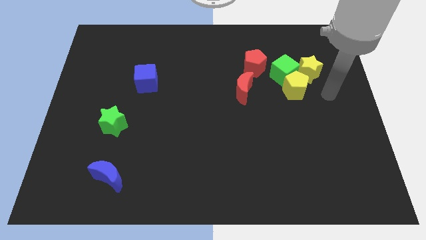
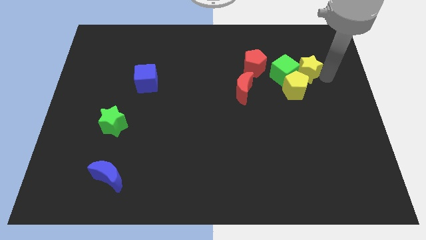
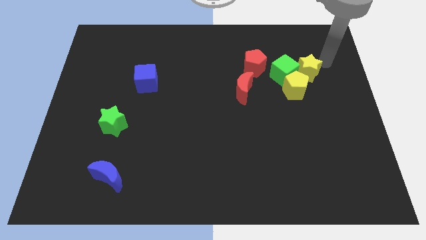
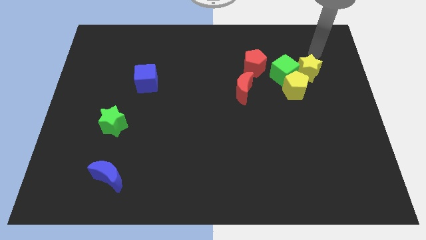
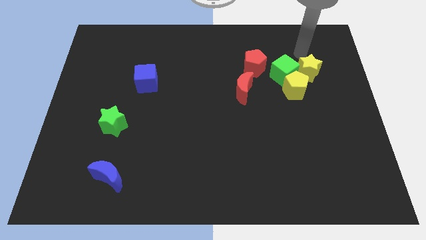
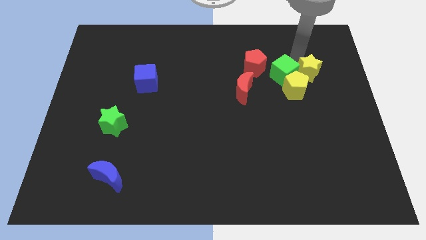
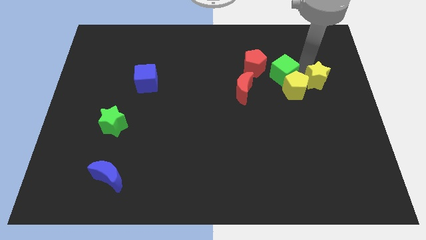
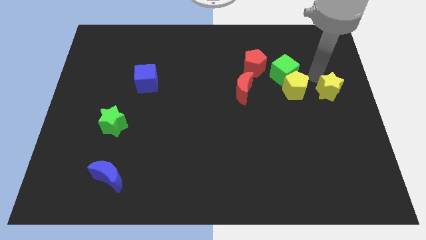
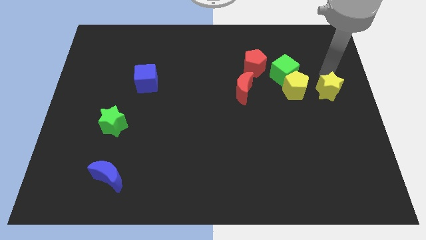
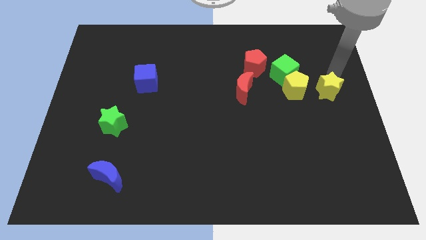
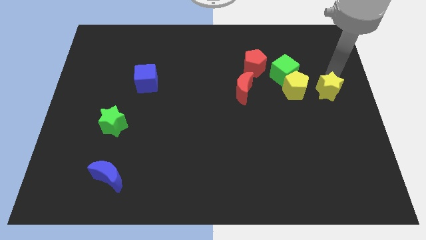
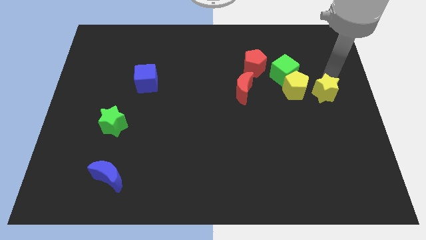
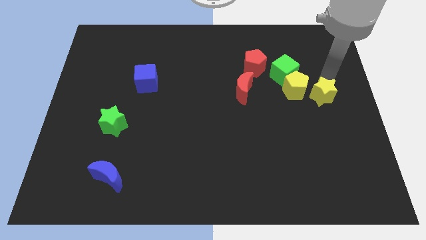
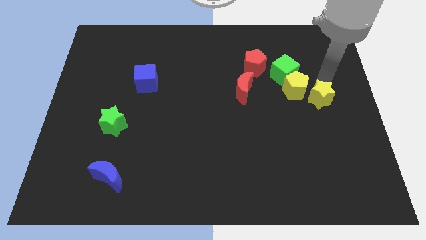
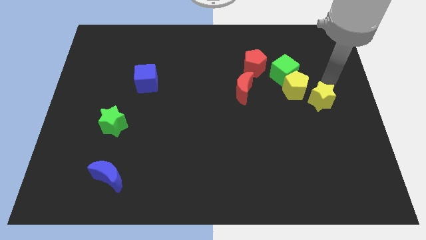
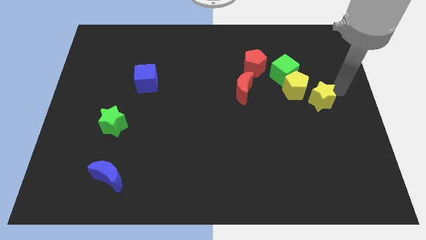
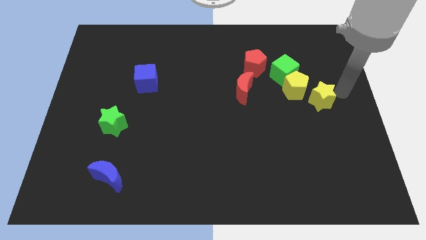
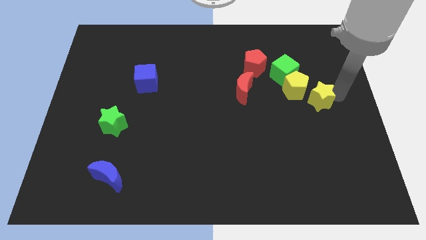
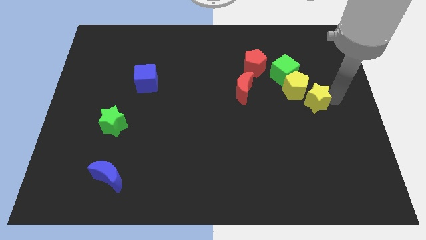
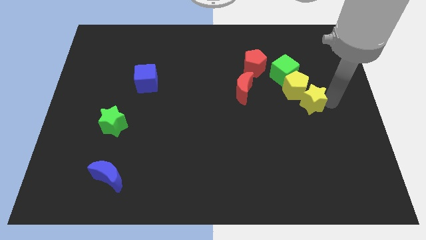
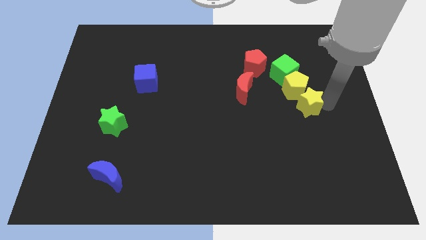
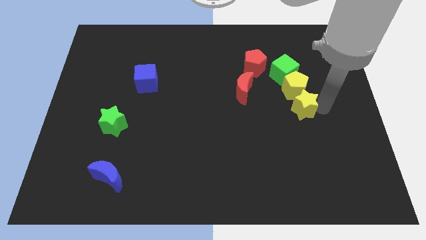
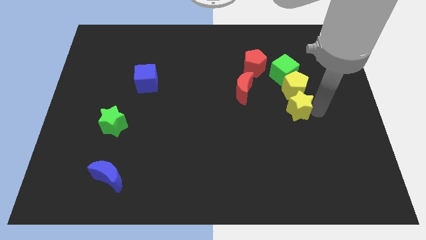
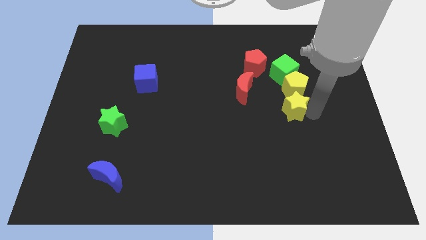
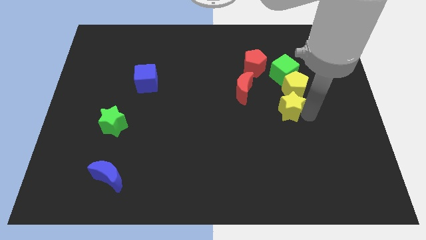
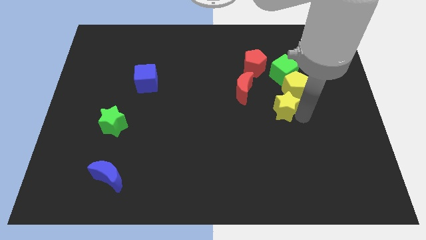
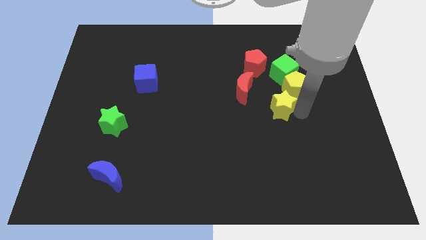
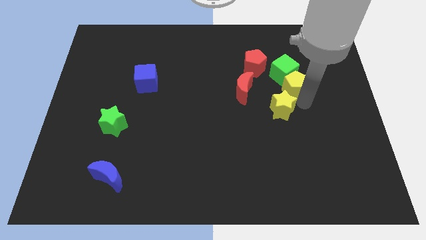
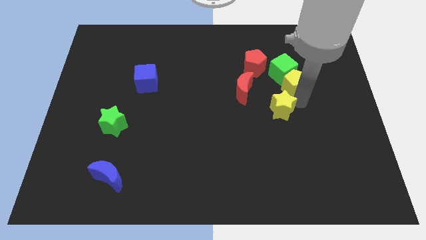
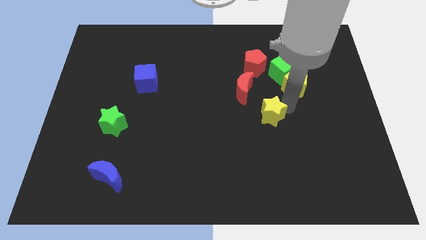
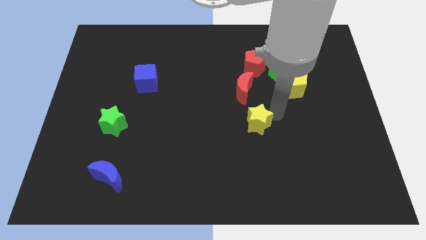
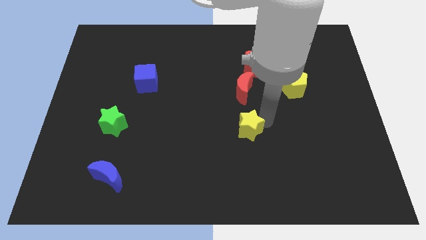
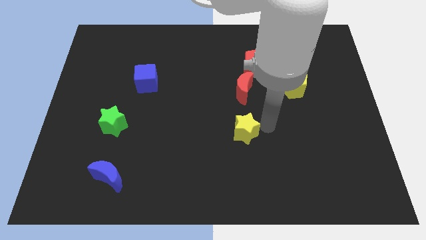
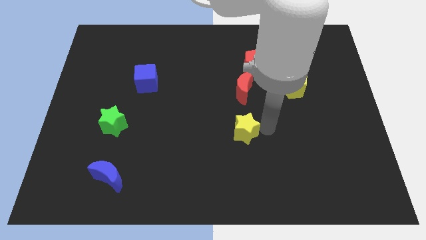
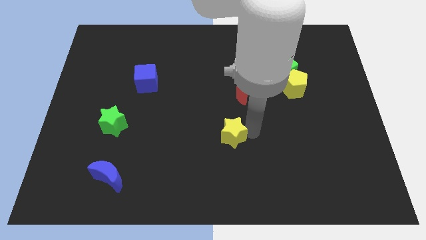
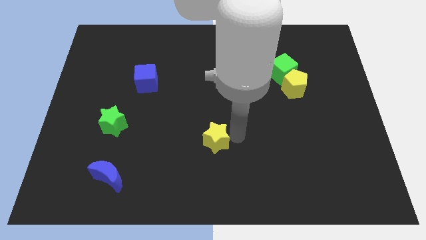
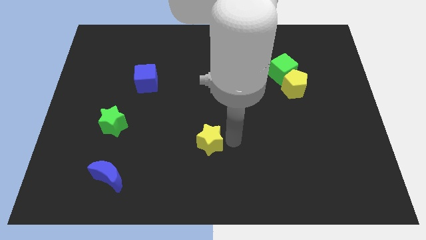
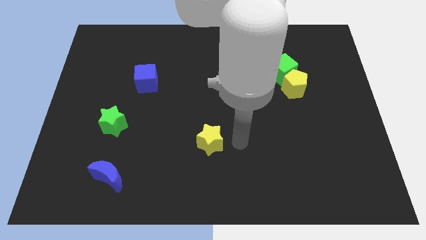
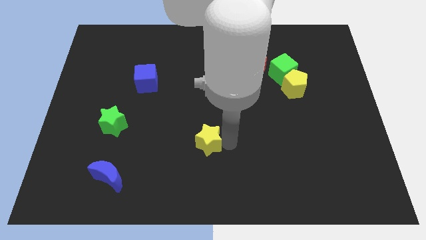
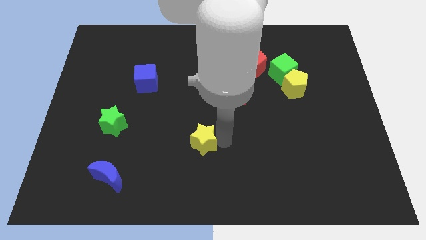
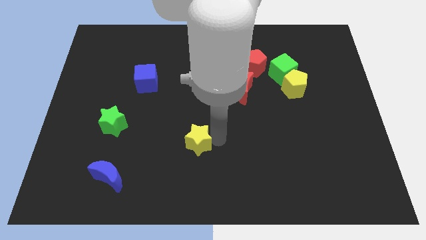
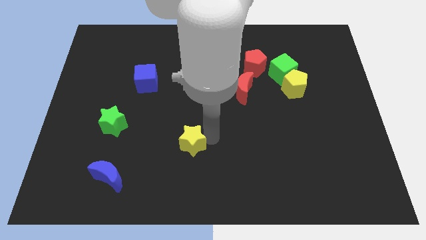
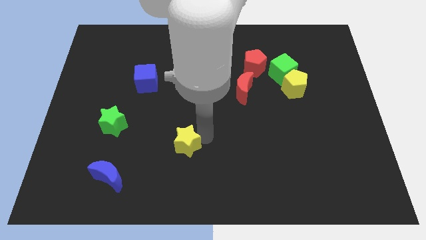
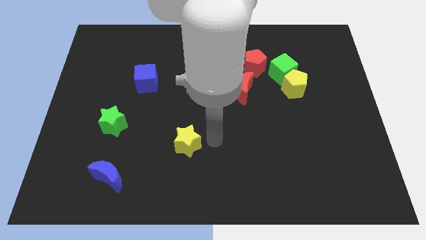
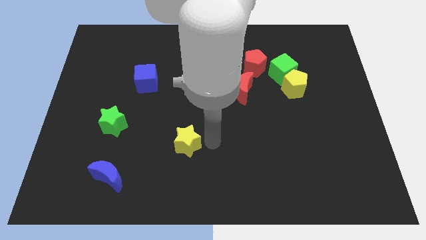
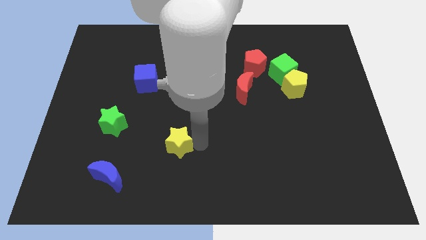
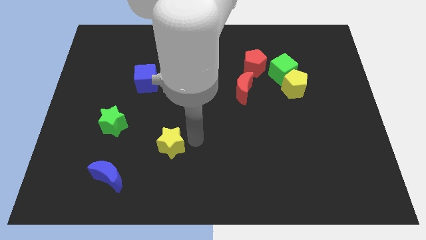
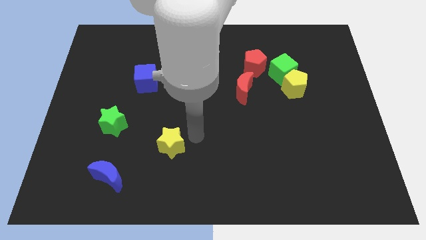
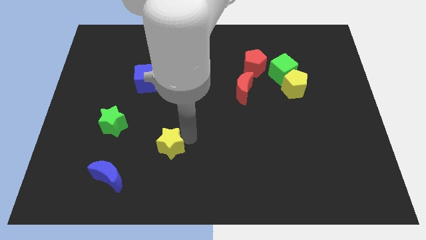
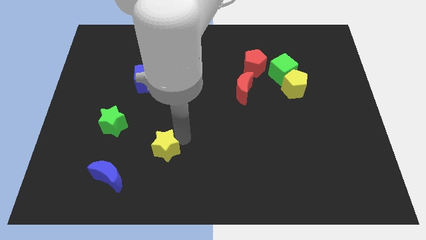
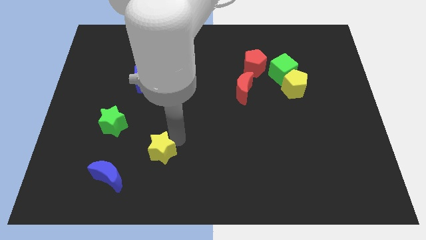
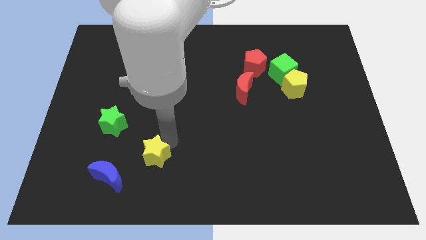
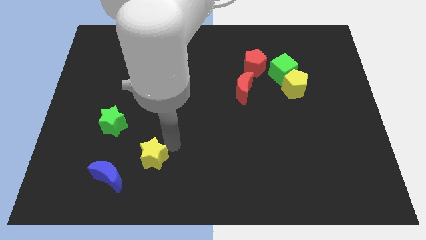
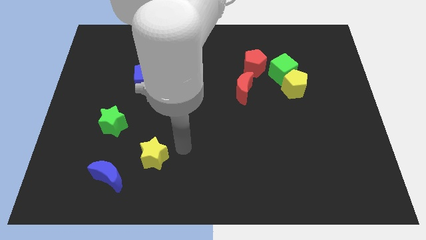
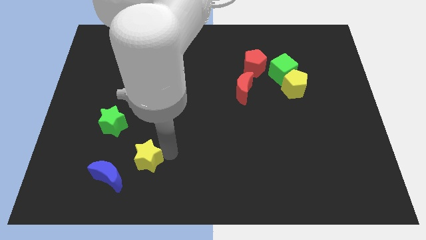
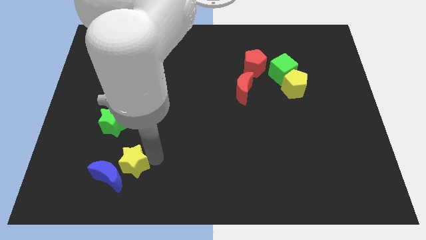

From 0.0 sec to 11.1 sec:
put the yellow star to the blue moon

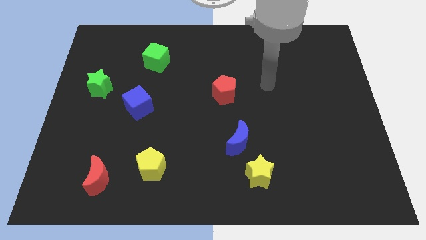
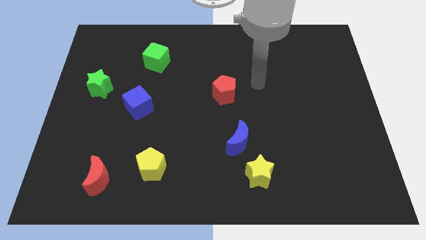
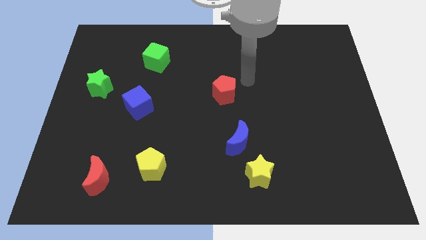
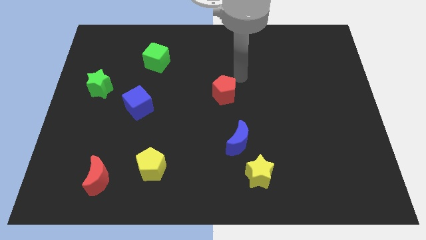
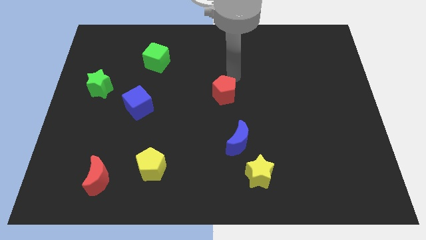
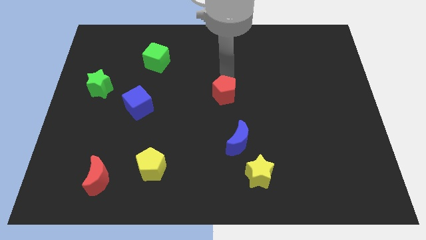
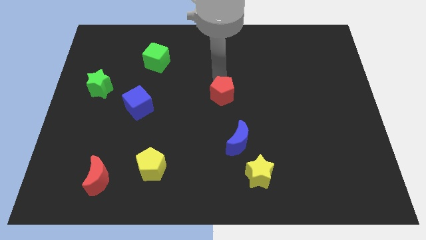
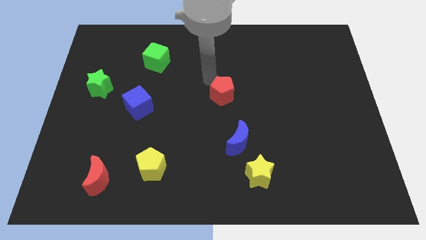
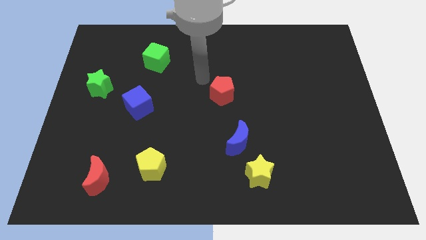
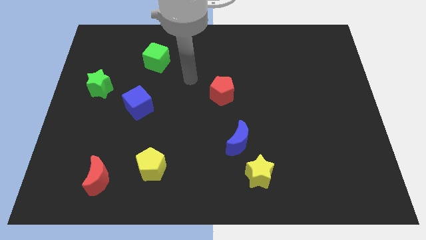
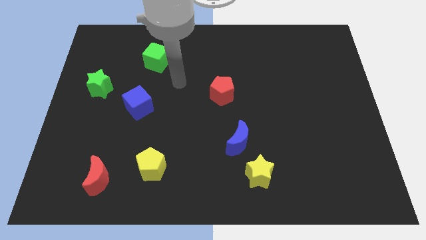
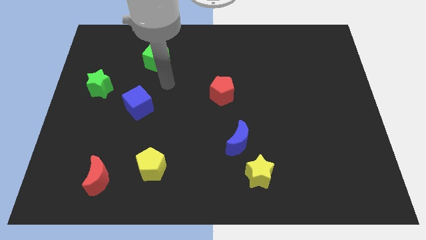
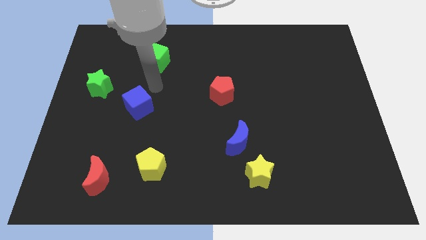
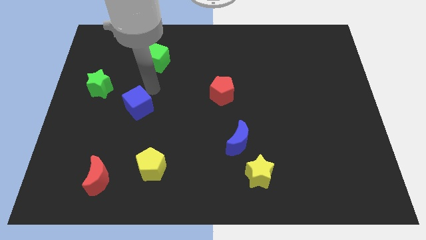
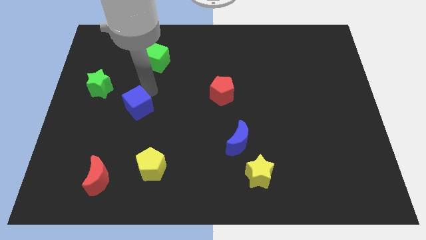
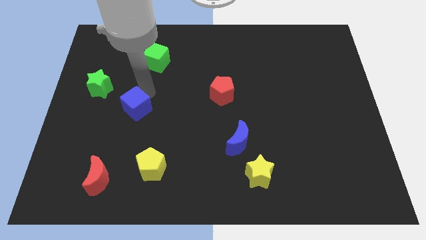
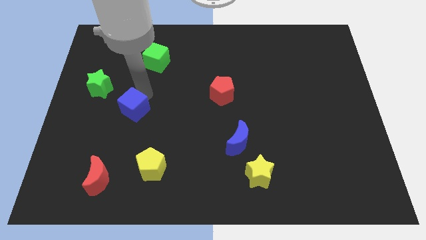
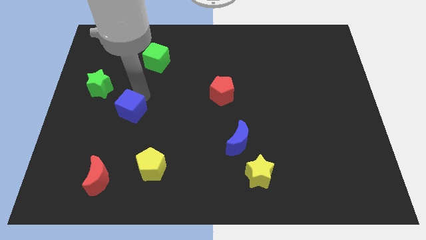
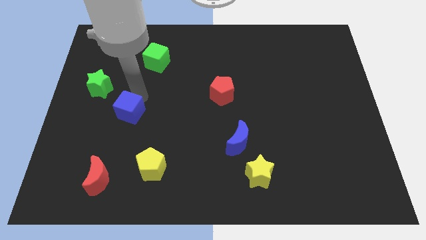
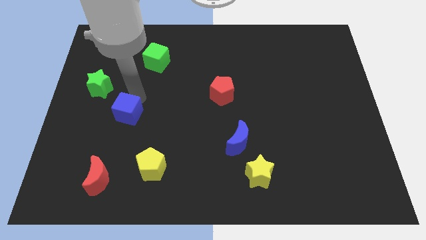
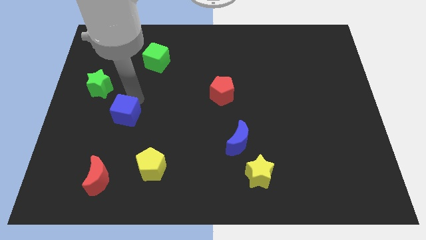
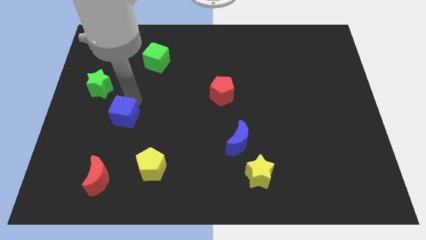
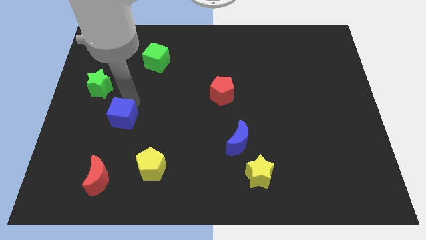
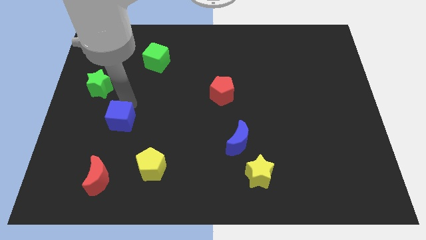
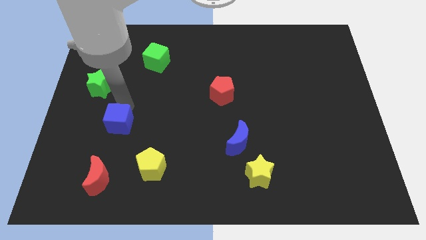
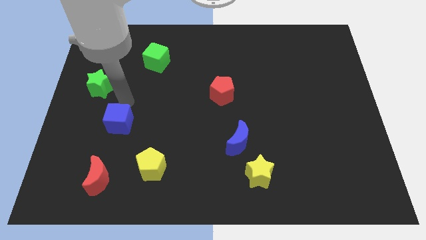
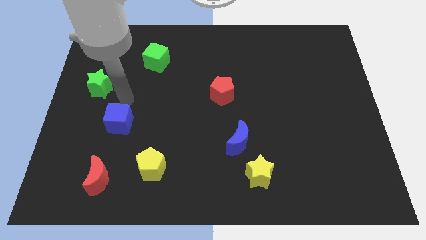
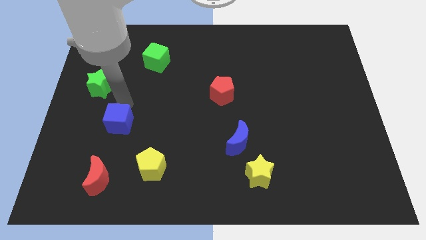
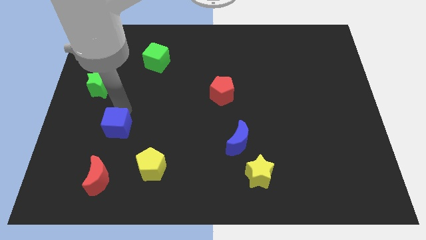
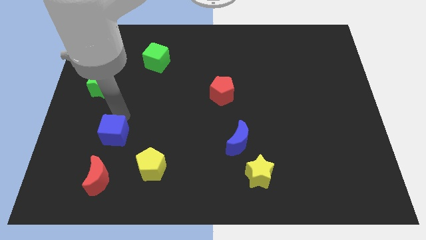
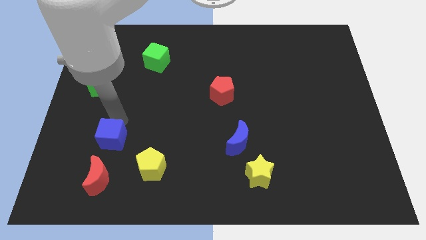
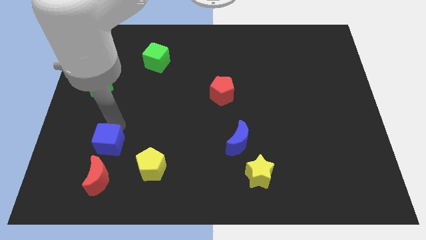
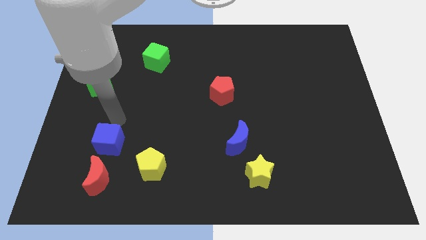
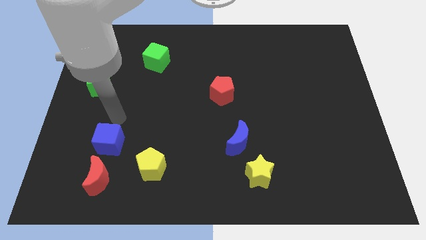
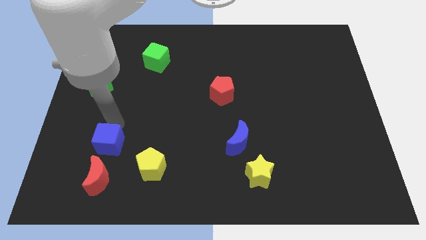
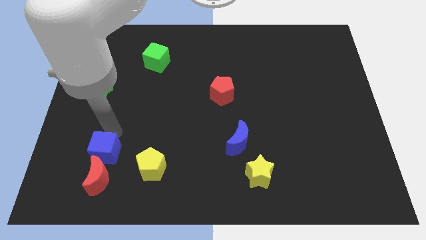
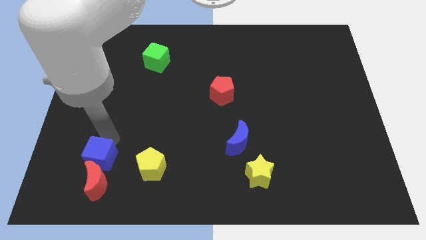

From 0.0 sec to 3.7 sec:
move the blue cube towards the red moon
